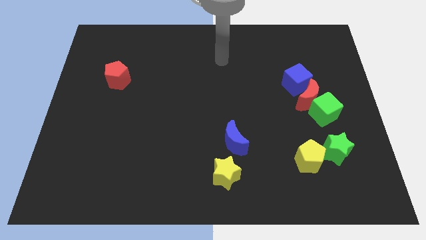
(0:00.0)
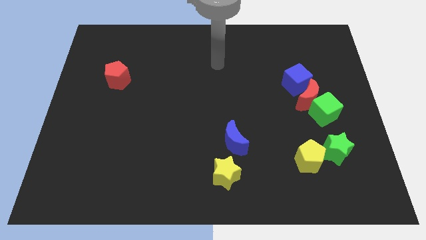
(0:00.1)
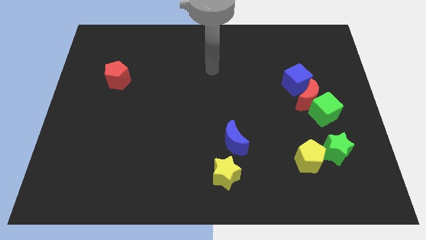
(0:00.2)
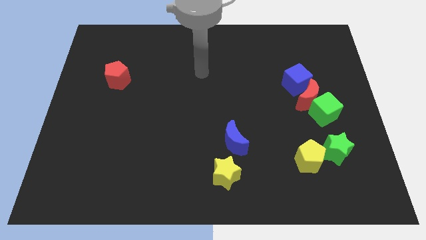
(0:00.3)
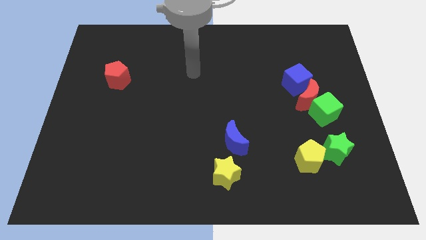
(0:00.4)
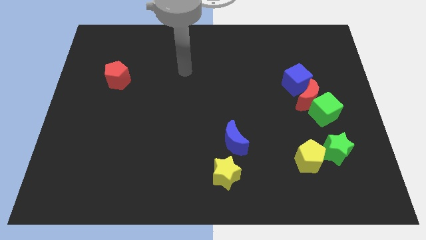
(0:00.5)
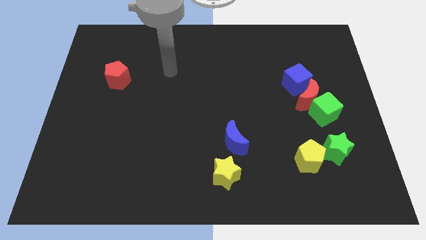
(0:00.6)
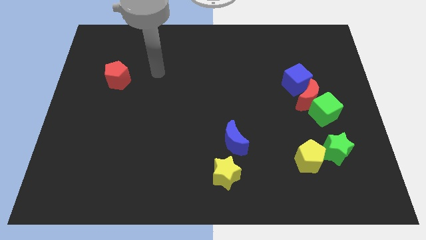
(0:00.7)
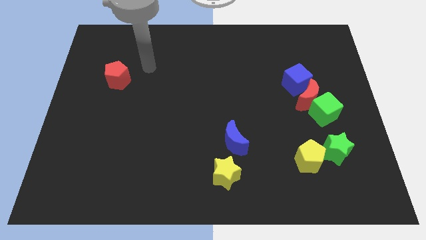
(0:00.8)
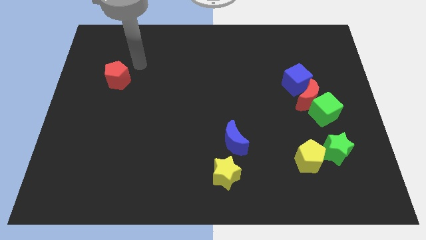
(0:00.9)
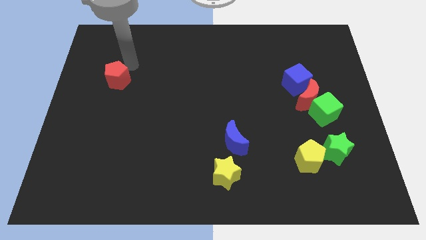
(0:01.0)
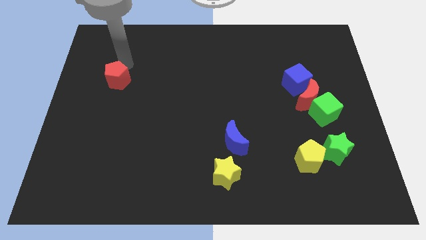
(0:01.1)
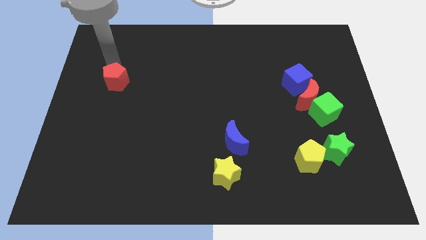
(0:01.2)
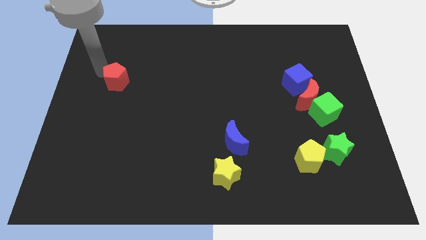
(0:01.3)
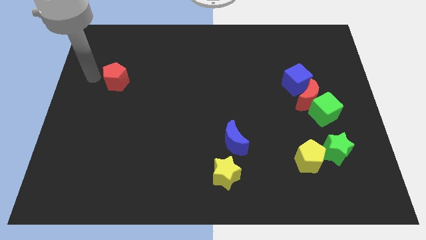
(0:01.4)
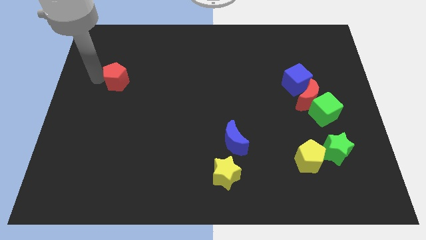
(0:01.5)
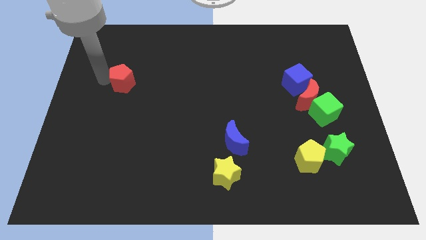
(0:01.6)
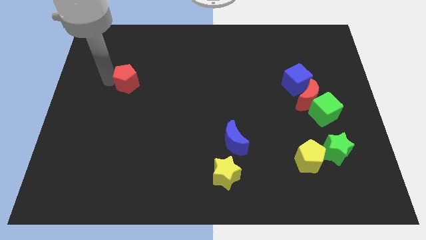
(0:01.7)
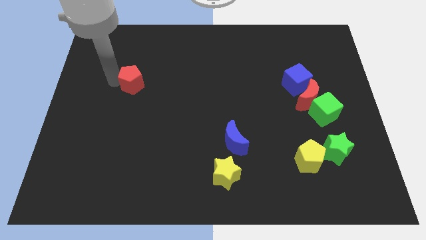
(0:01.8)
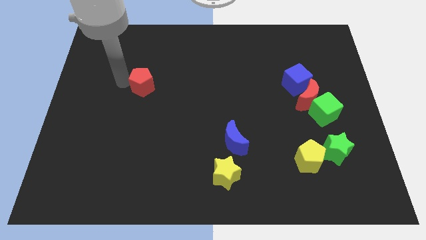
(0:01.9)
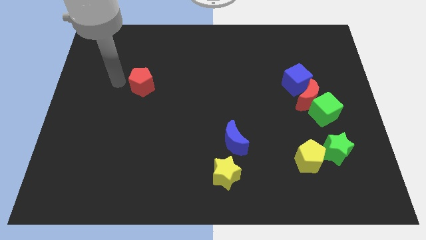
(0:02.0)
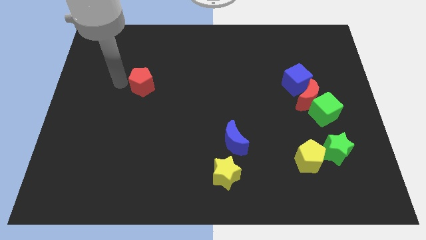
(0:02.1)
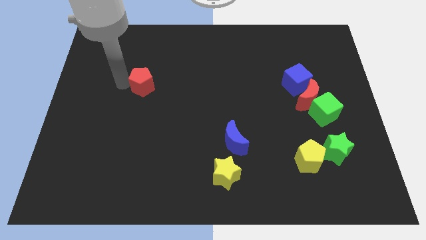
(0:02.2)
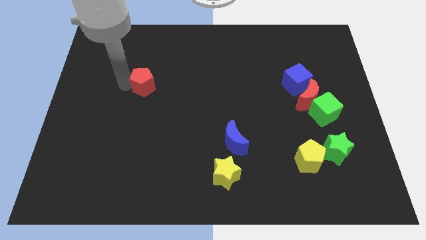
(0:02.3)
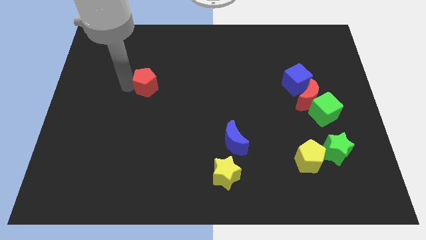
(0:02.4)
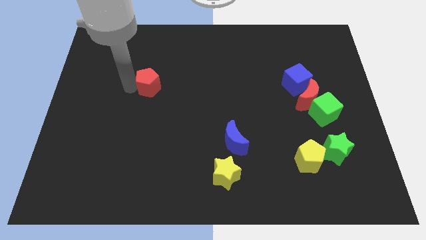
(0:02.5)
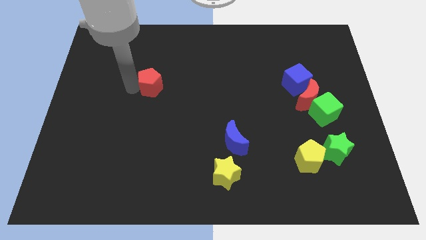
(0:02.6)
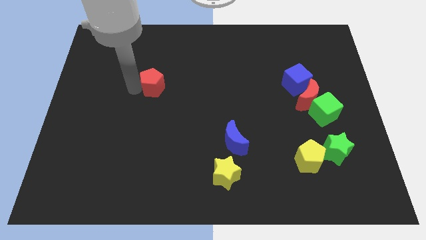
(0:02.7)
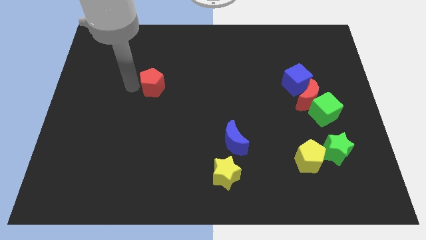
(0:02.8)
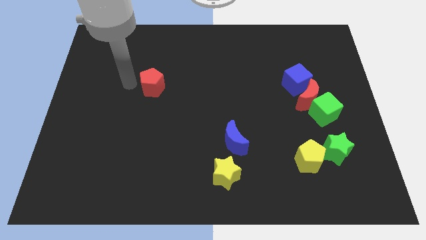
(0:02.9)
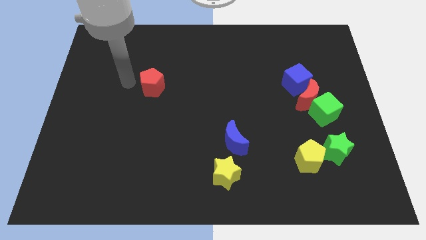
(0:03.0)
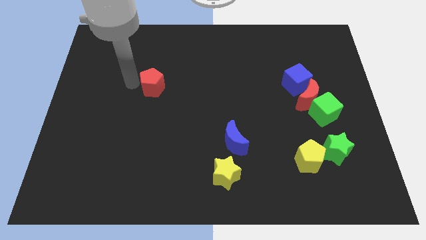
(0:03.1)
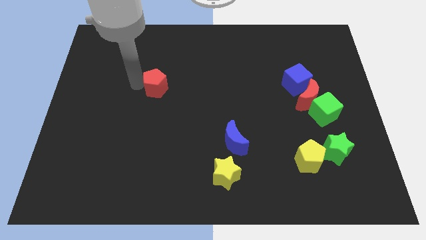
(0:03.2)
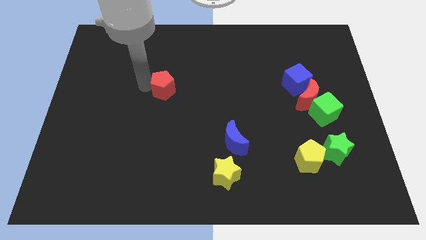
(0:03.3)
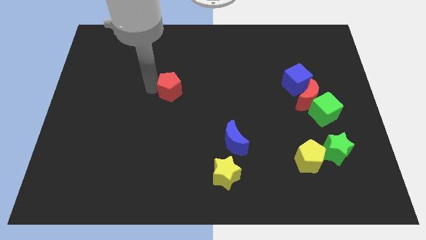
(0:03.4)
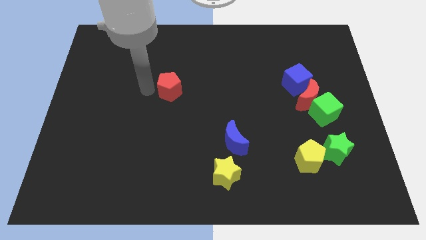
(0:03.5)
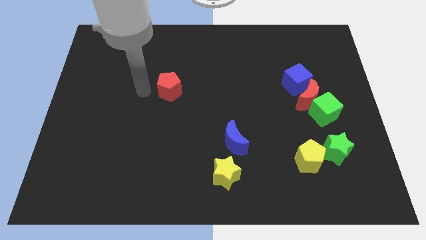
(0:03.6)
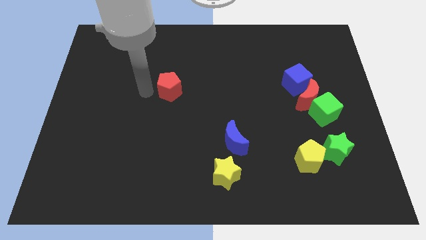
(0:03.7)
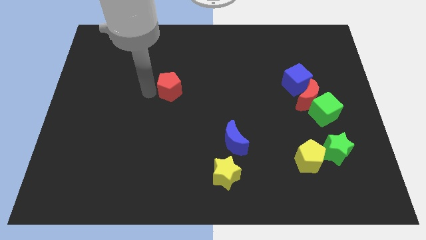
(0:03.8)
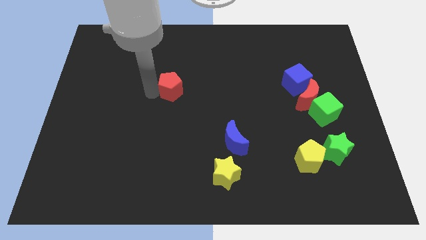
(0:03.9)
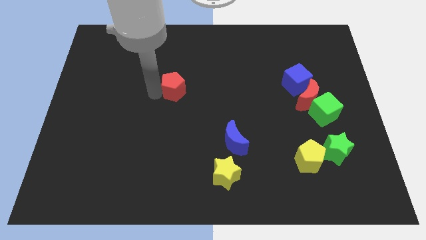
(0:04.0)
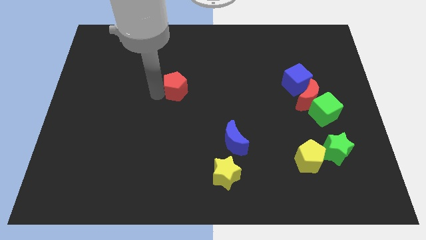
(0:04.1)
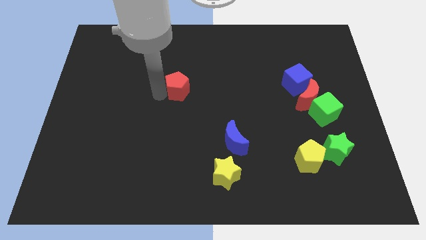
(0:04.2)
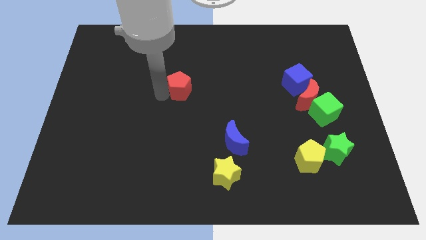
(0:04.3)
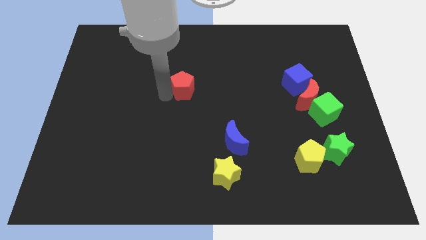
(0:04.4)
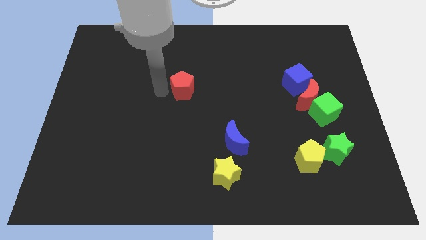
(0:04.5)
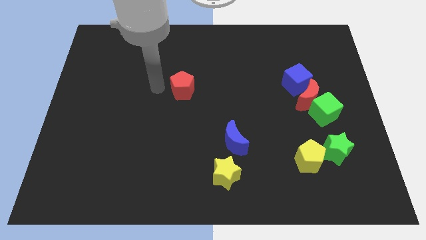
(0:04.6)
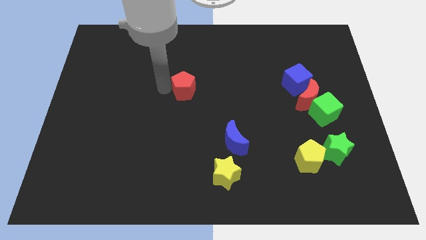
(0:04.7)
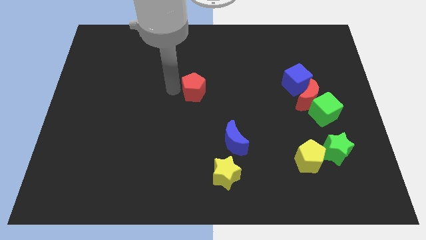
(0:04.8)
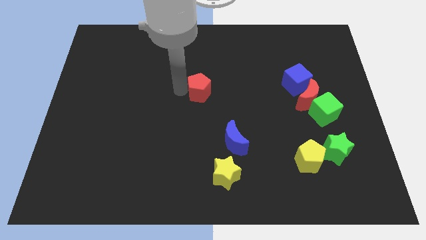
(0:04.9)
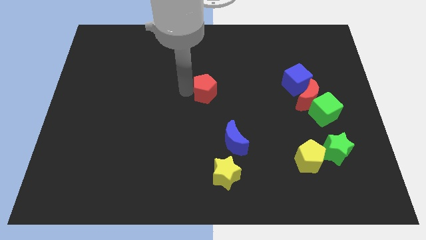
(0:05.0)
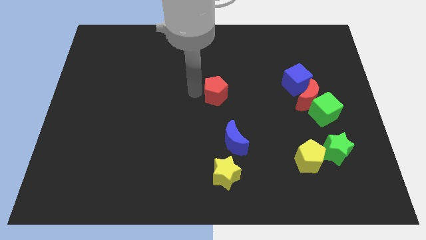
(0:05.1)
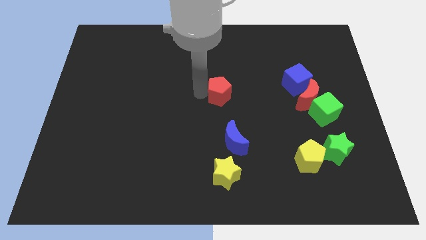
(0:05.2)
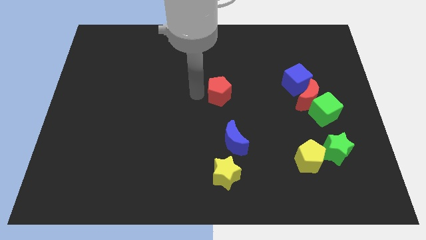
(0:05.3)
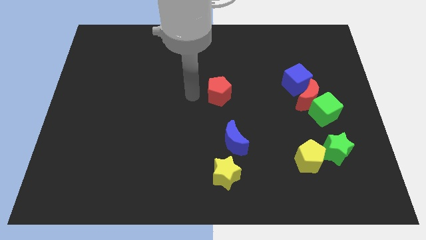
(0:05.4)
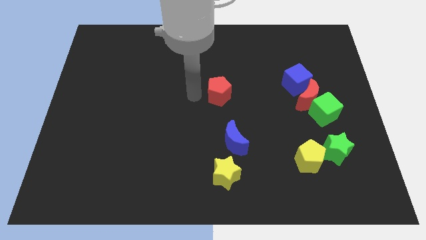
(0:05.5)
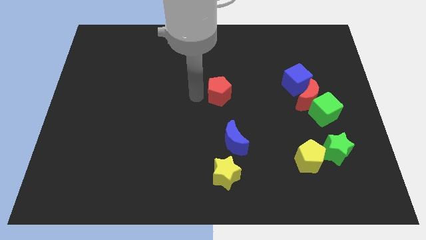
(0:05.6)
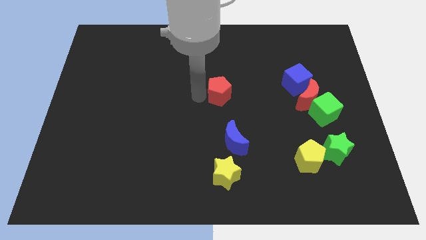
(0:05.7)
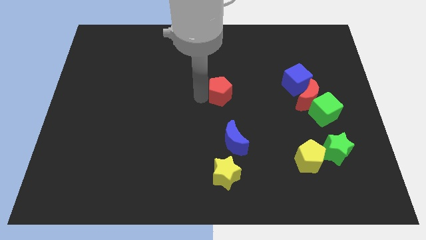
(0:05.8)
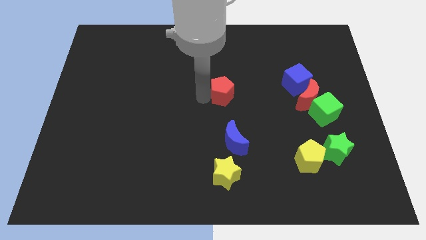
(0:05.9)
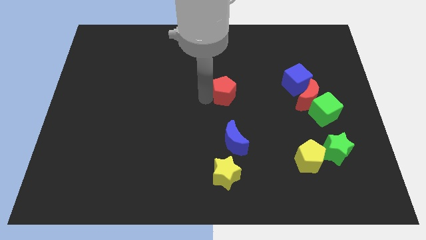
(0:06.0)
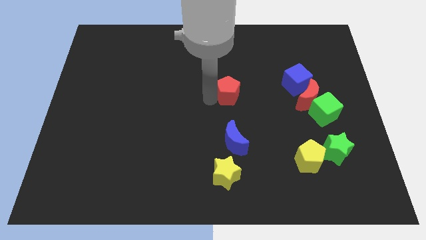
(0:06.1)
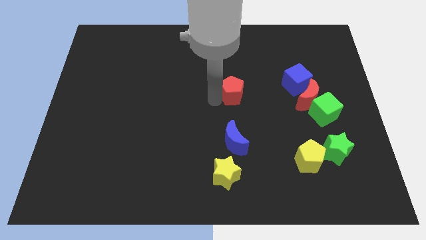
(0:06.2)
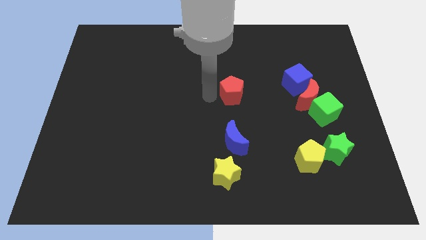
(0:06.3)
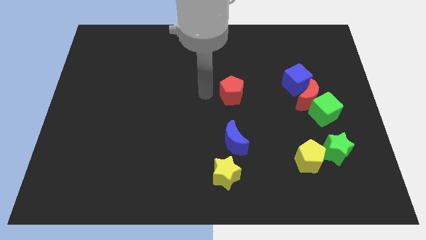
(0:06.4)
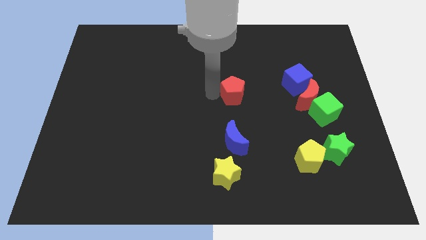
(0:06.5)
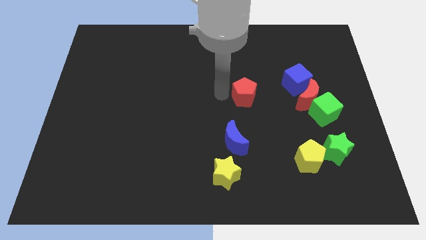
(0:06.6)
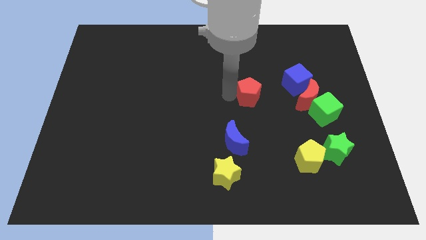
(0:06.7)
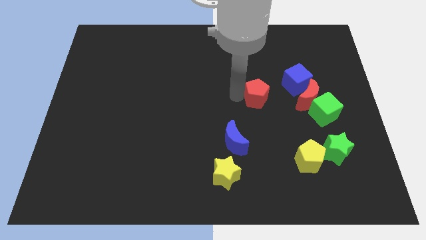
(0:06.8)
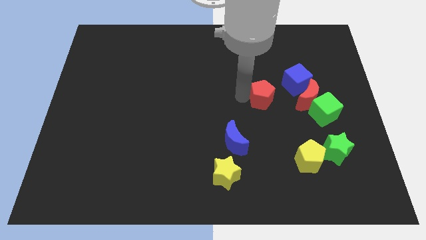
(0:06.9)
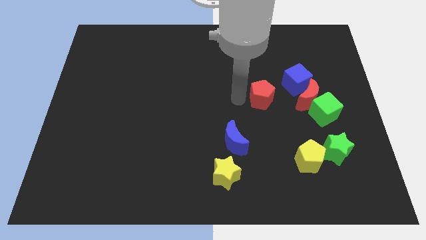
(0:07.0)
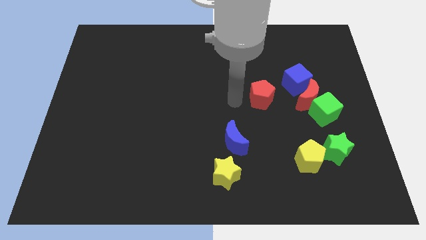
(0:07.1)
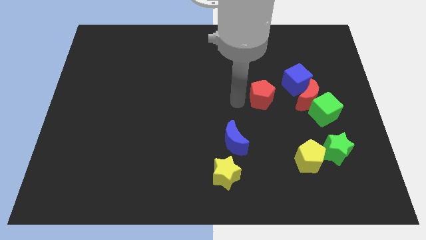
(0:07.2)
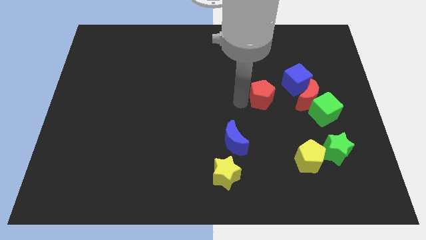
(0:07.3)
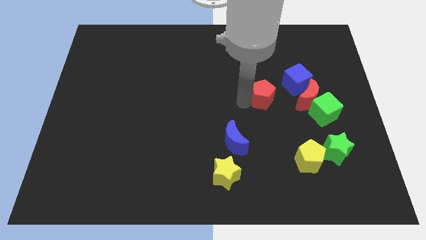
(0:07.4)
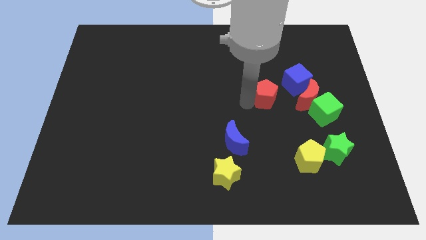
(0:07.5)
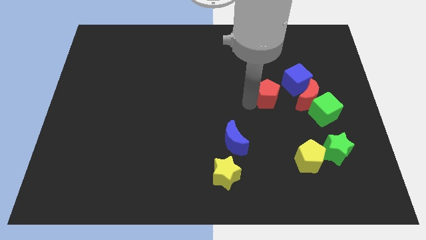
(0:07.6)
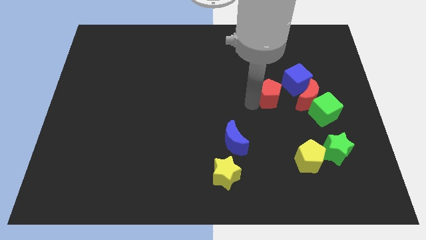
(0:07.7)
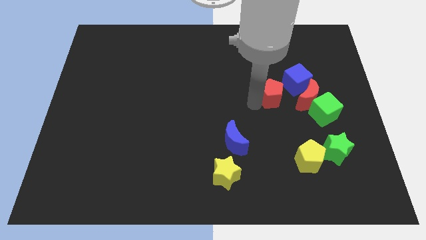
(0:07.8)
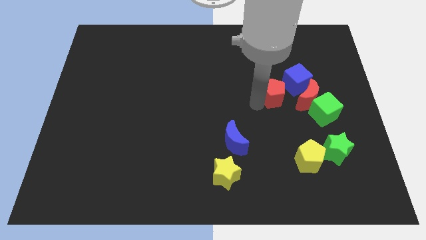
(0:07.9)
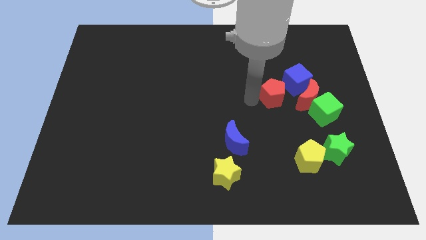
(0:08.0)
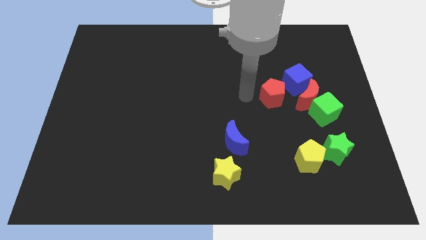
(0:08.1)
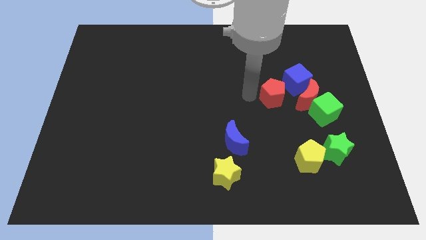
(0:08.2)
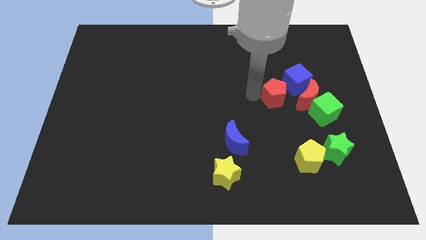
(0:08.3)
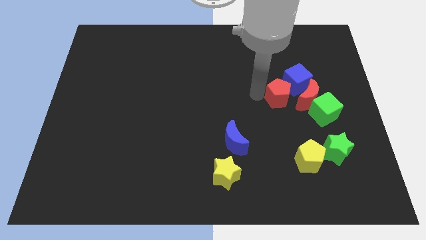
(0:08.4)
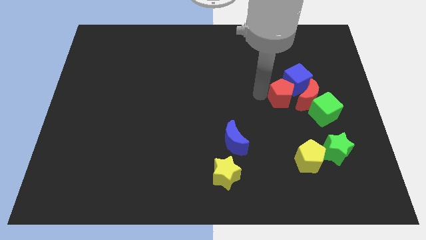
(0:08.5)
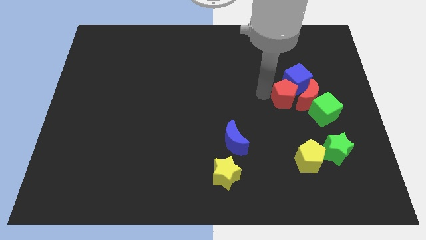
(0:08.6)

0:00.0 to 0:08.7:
push the red pentagon next to the red moon
